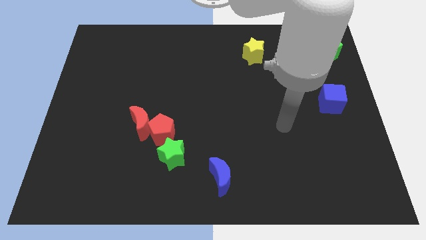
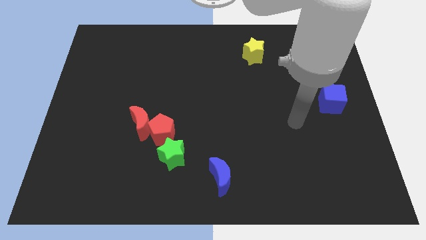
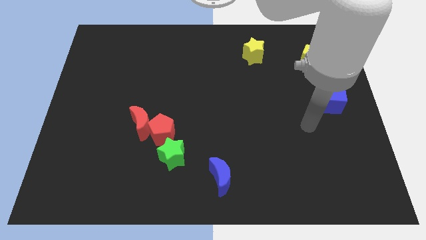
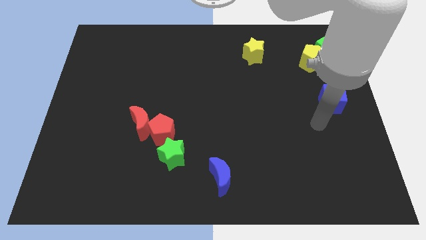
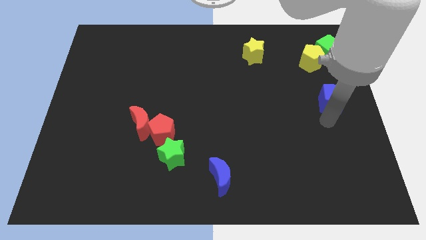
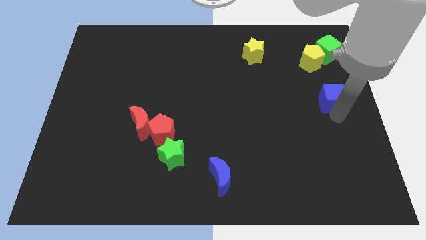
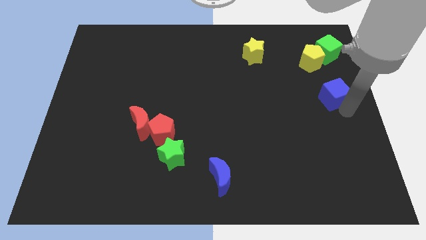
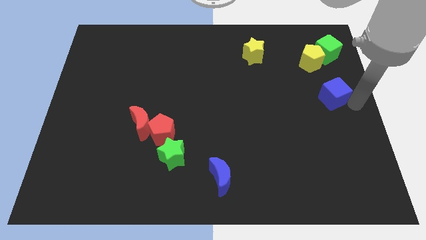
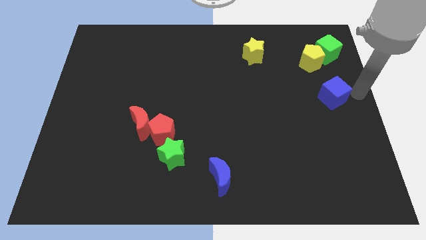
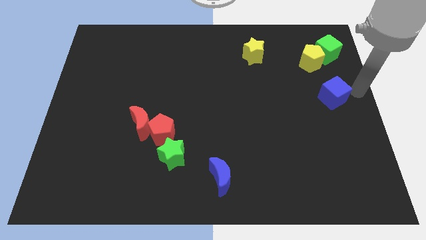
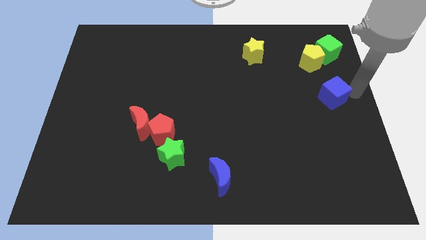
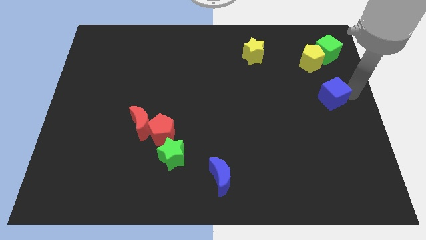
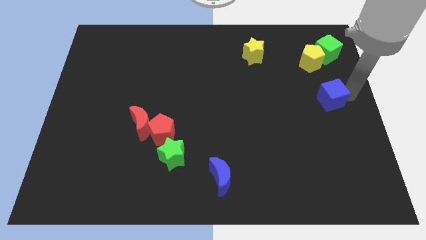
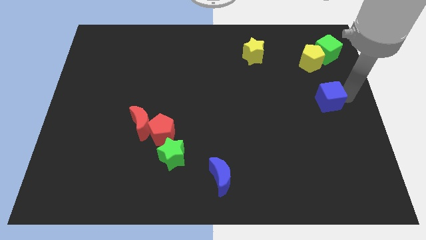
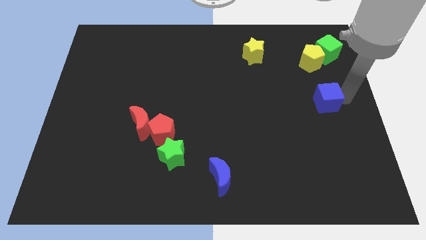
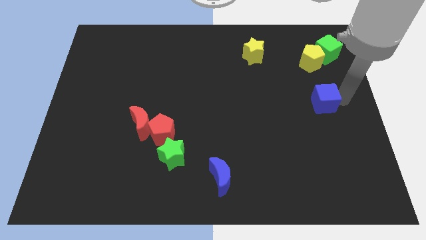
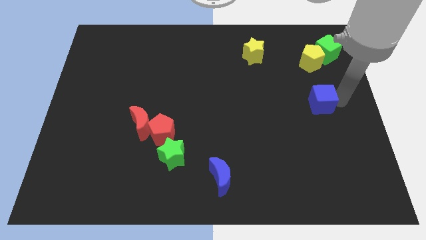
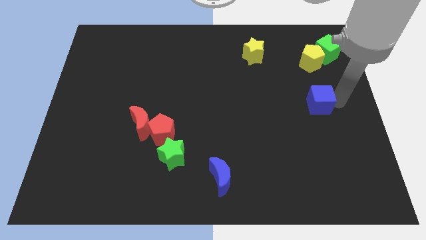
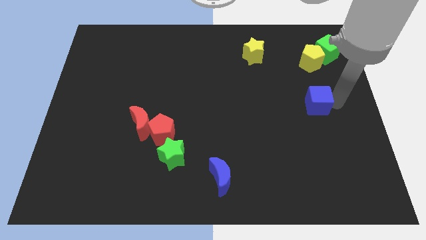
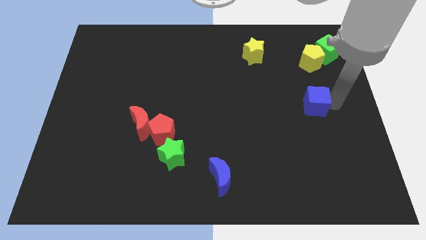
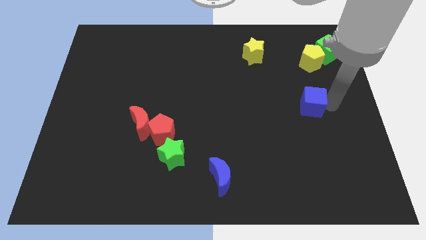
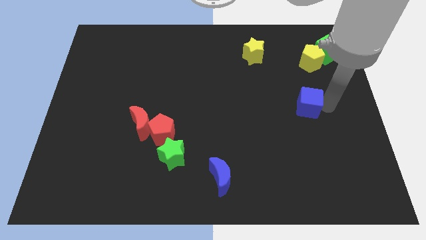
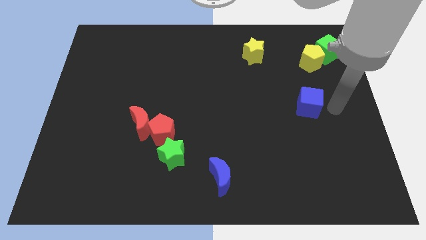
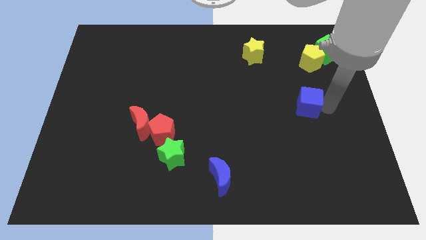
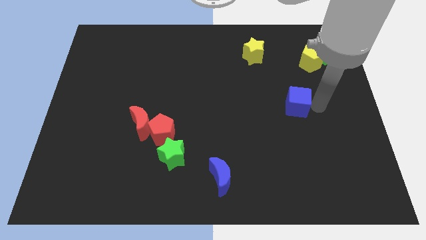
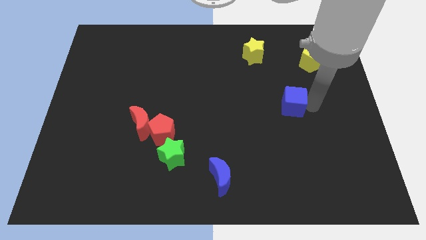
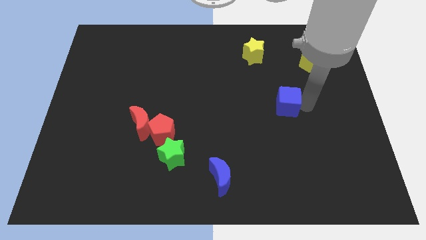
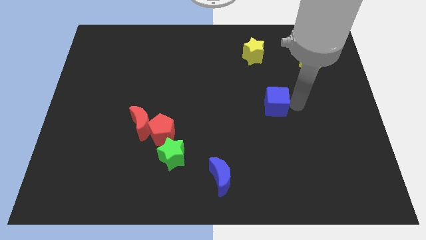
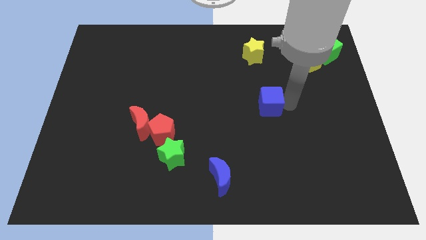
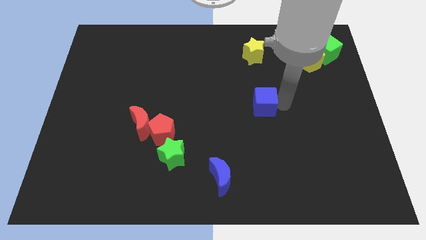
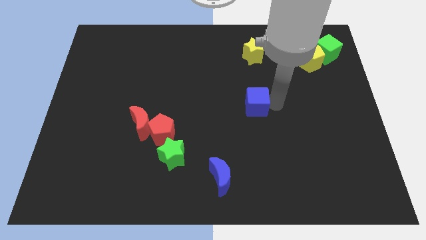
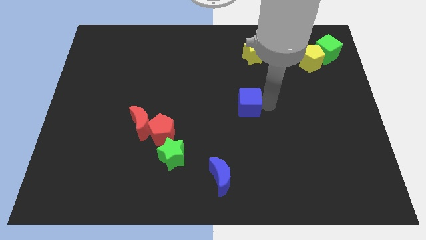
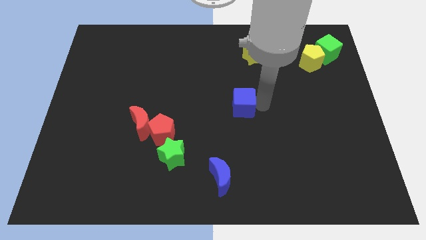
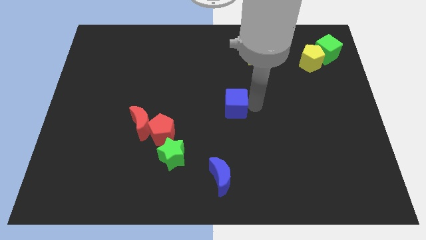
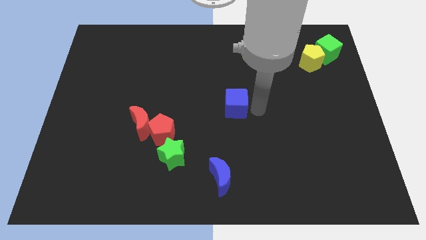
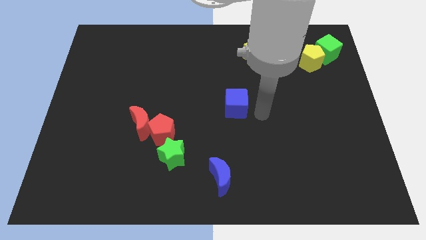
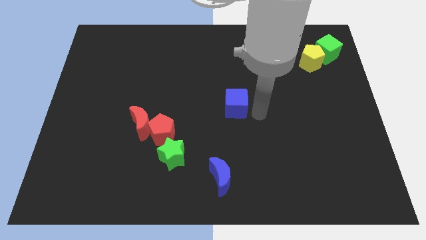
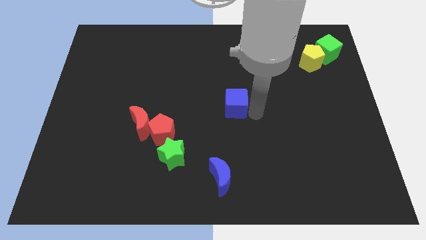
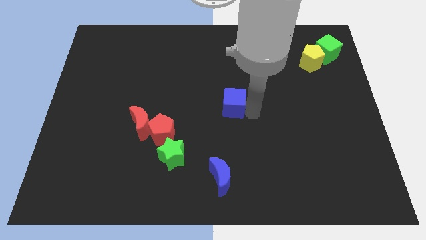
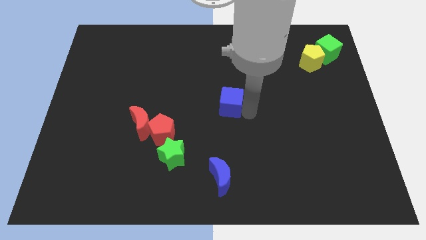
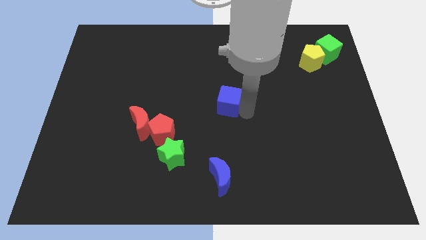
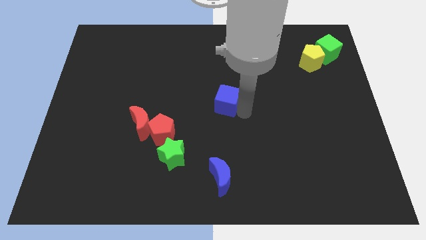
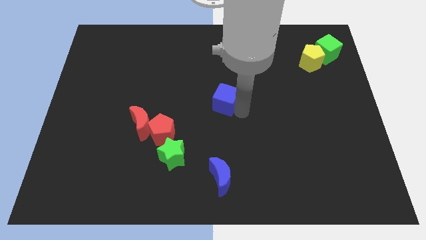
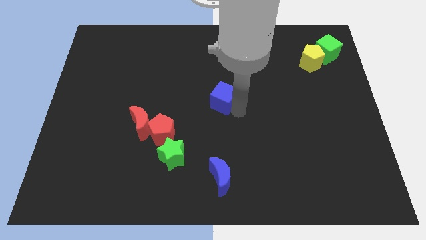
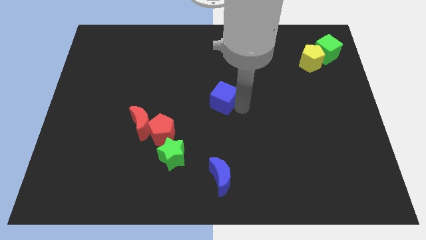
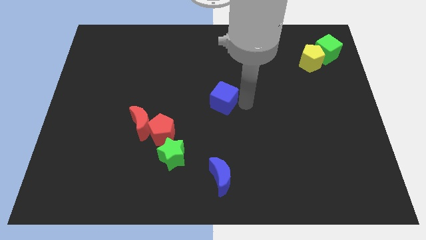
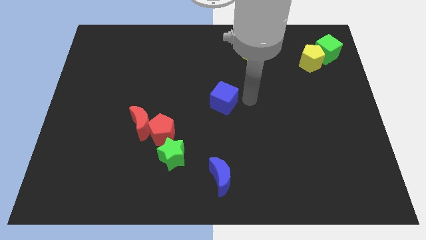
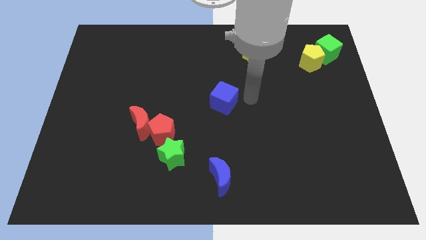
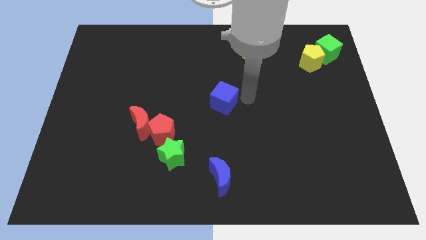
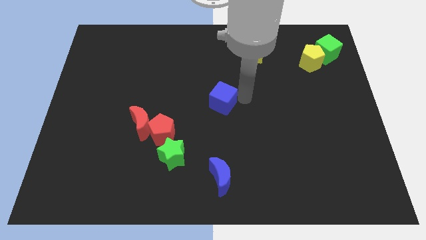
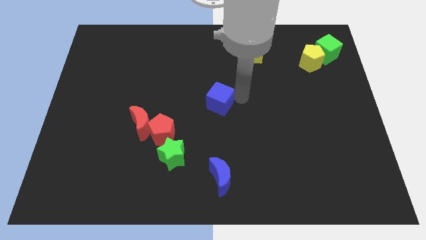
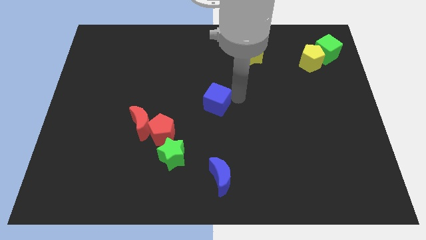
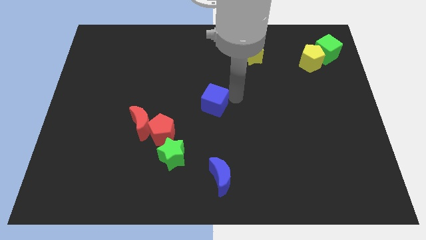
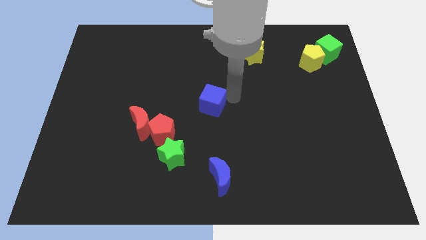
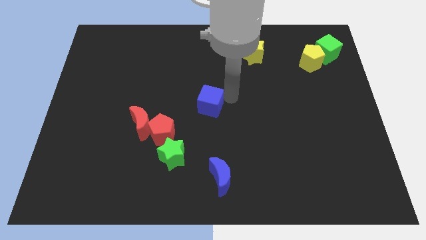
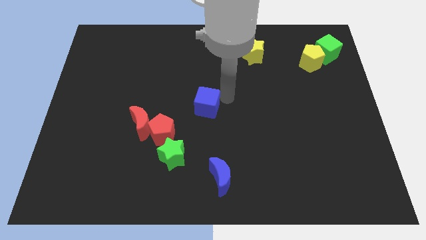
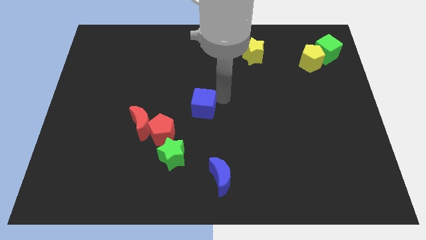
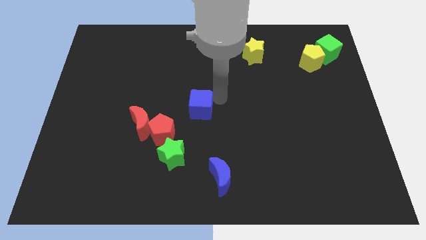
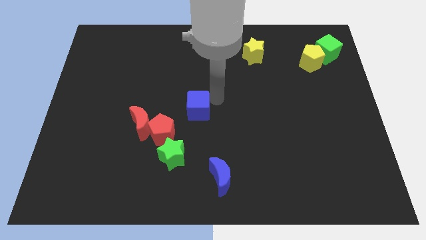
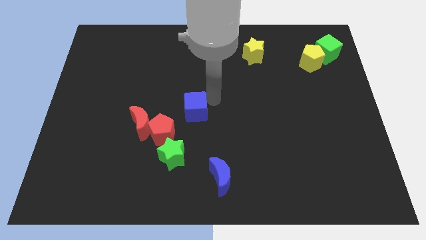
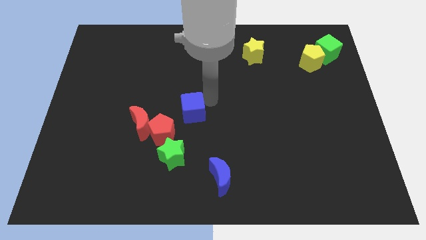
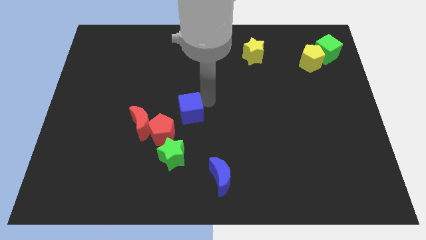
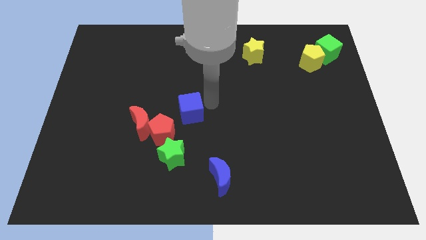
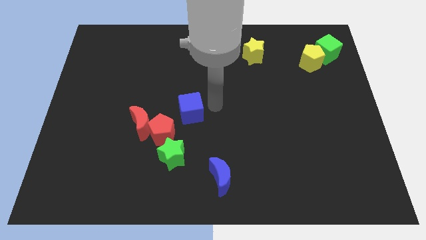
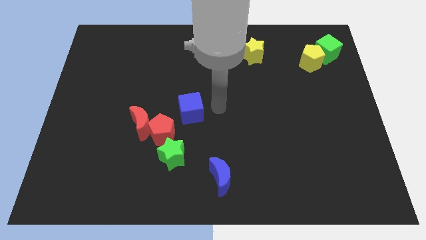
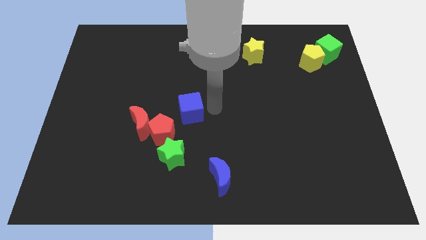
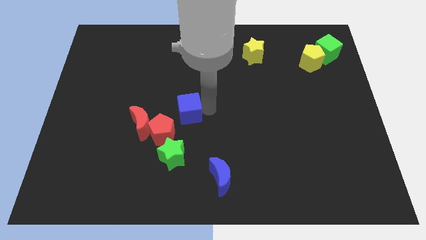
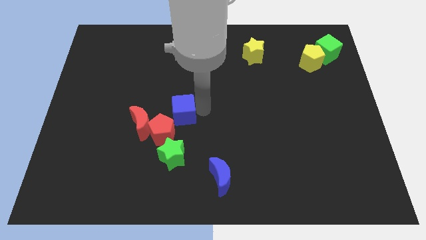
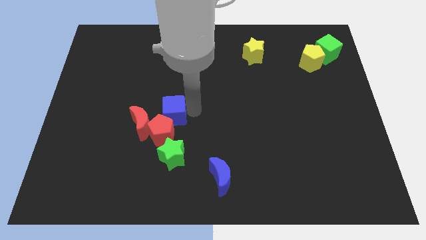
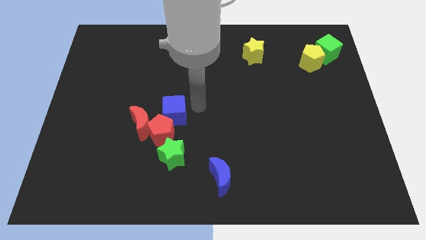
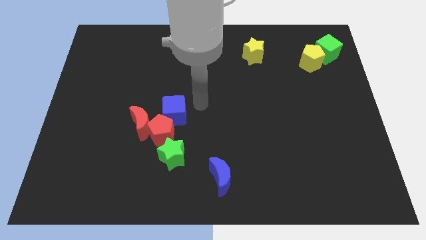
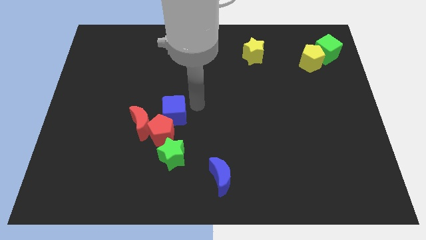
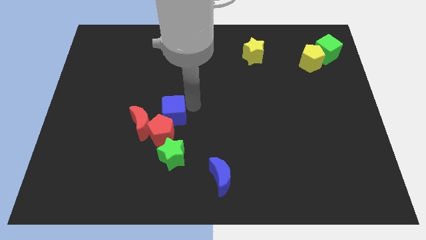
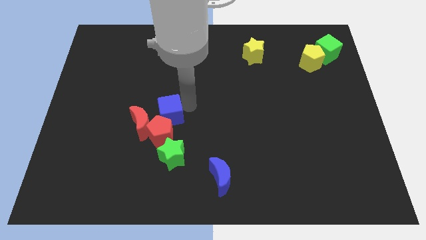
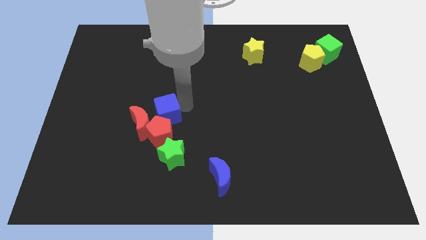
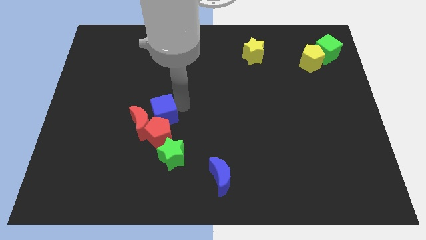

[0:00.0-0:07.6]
move the blue cube towards the red moon
